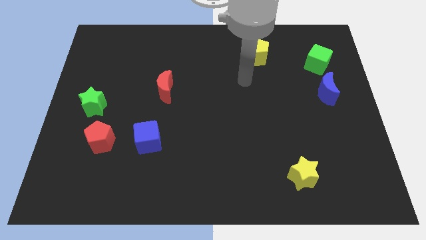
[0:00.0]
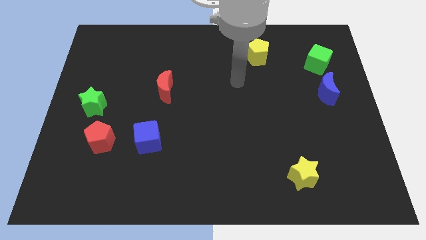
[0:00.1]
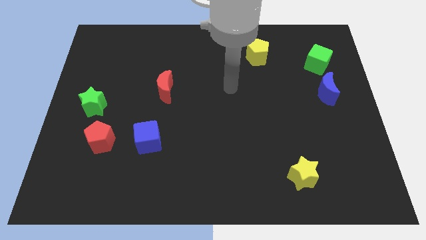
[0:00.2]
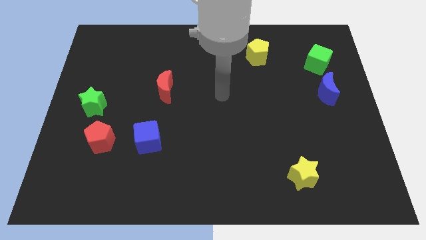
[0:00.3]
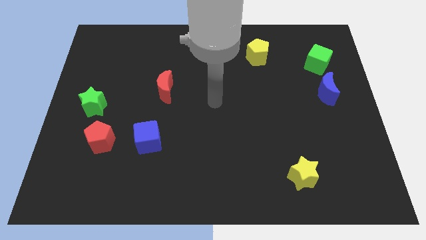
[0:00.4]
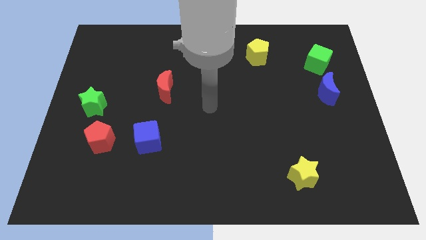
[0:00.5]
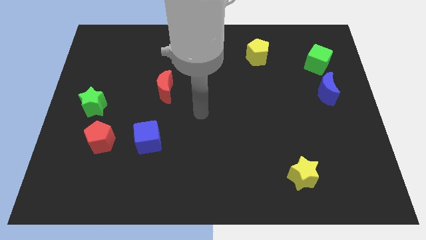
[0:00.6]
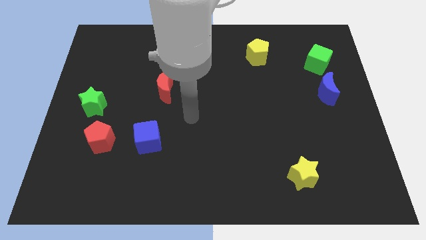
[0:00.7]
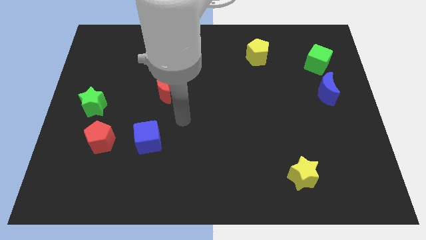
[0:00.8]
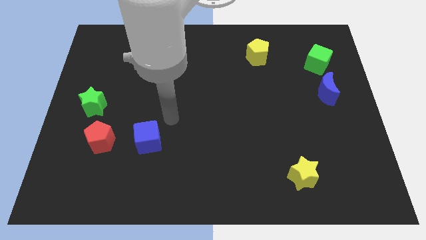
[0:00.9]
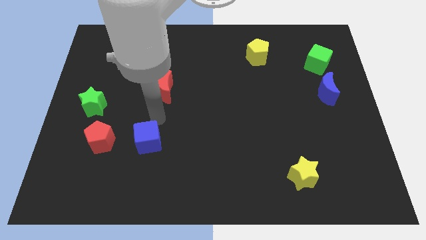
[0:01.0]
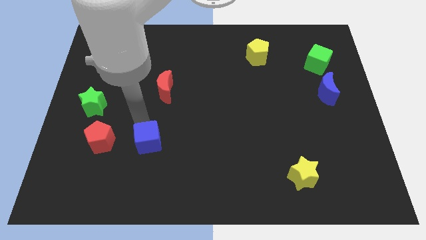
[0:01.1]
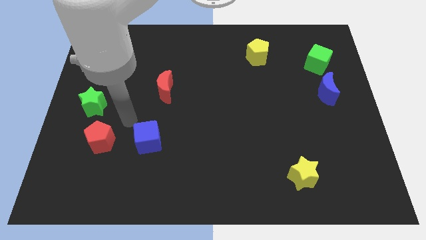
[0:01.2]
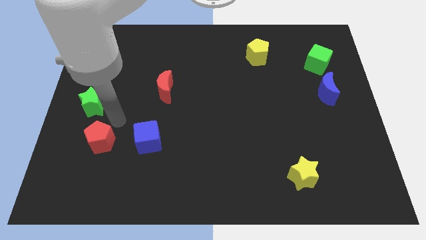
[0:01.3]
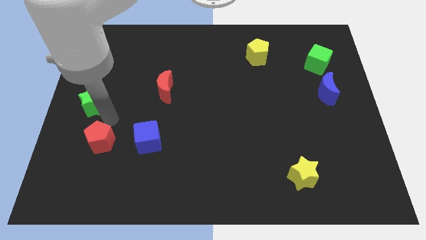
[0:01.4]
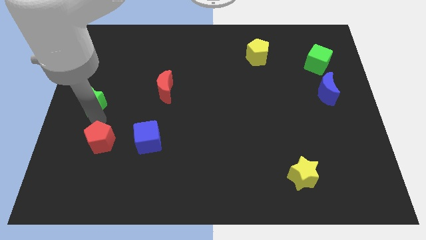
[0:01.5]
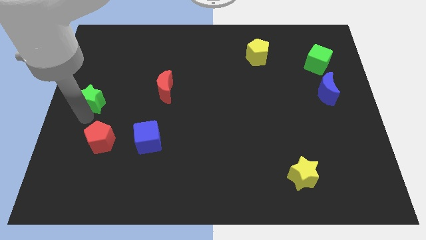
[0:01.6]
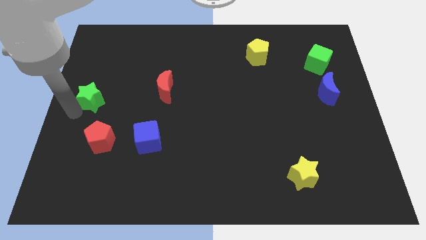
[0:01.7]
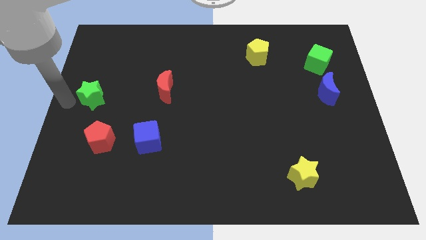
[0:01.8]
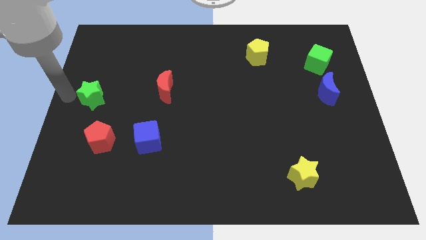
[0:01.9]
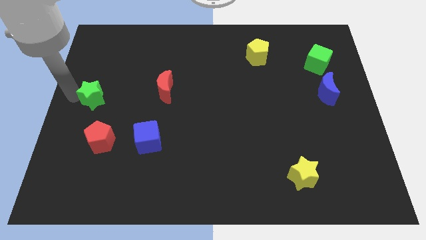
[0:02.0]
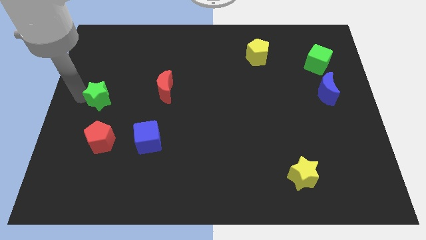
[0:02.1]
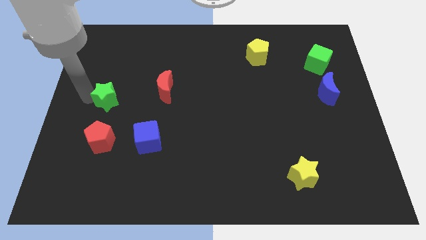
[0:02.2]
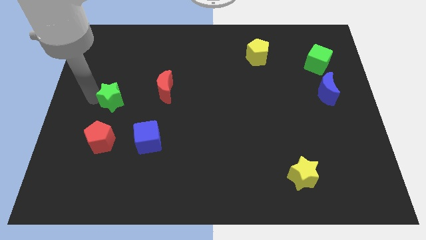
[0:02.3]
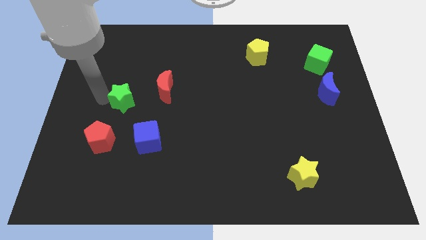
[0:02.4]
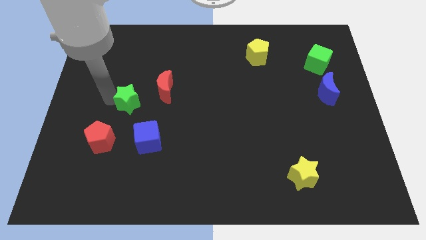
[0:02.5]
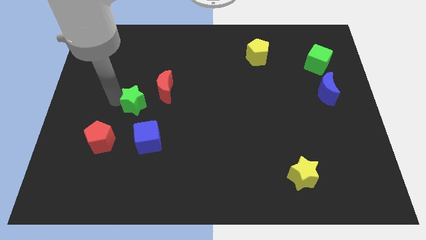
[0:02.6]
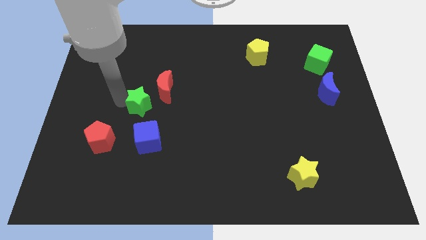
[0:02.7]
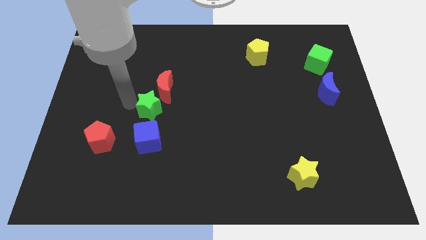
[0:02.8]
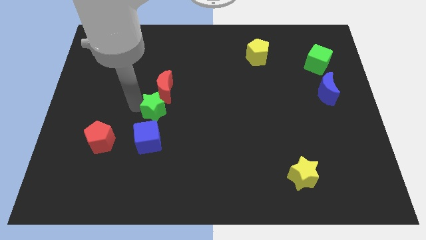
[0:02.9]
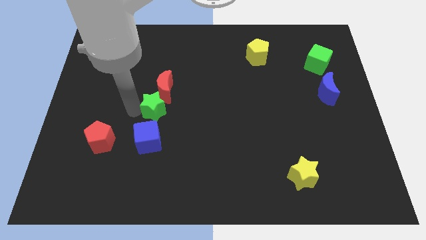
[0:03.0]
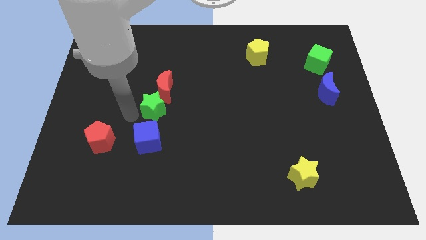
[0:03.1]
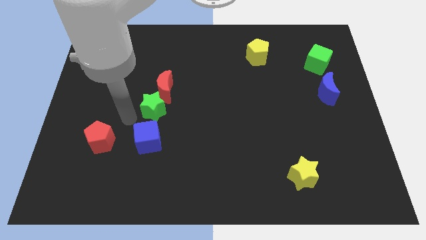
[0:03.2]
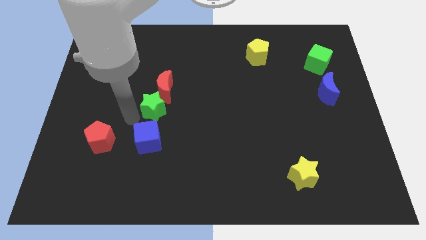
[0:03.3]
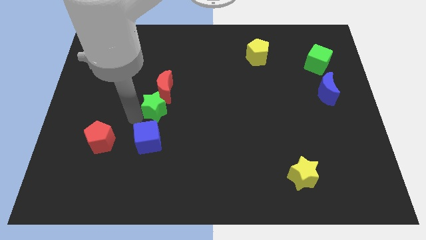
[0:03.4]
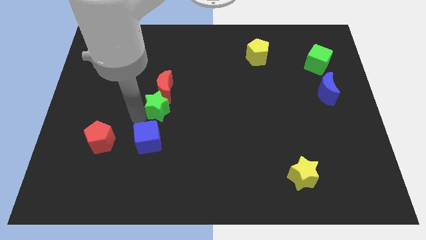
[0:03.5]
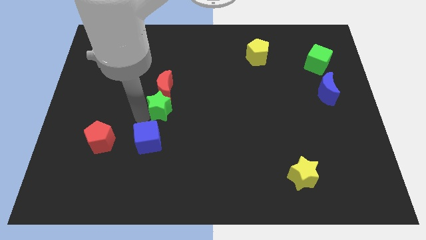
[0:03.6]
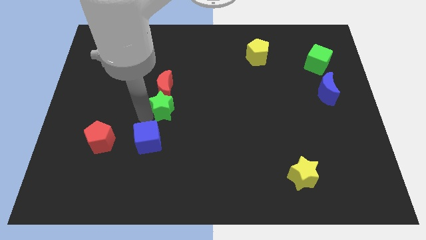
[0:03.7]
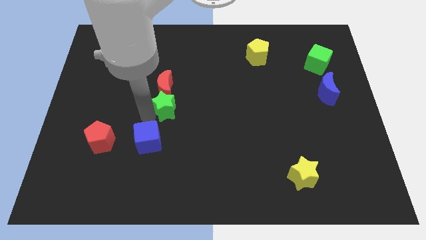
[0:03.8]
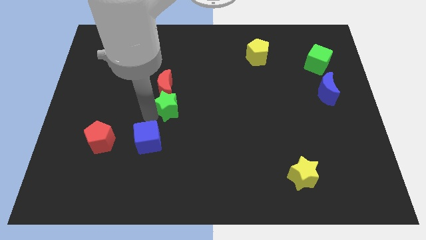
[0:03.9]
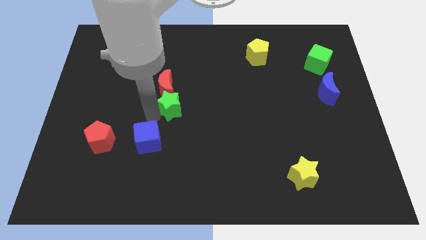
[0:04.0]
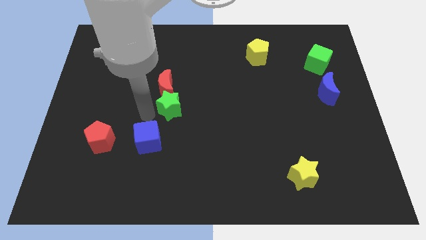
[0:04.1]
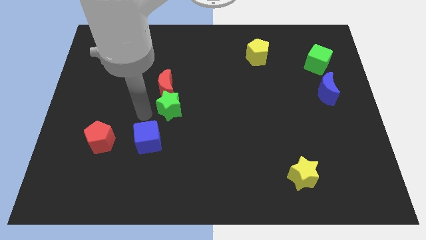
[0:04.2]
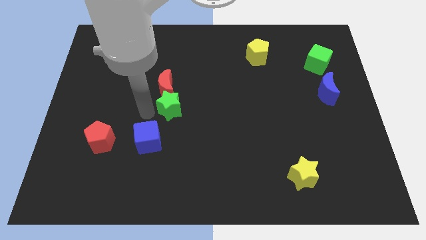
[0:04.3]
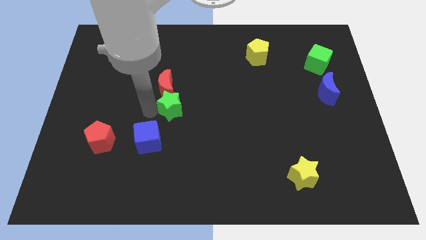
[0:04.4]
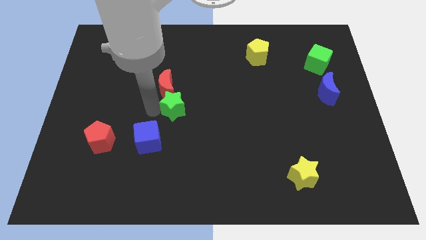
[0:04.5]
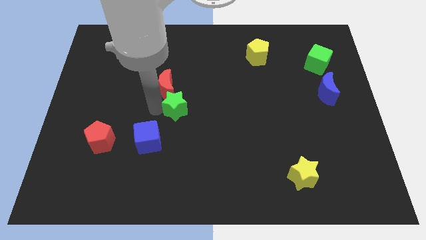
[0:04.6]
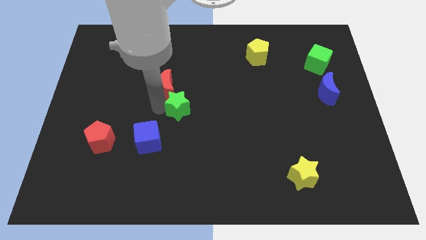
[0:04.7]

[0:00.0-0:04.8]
slide the green star to the right

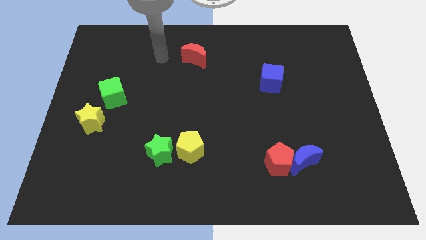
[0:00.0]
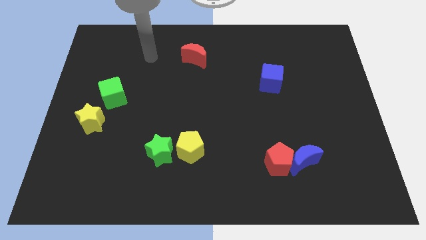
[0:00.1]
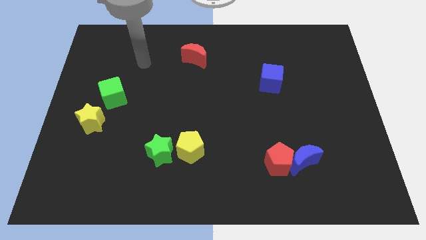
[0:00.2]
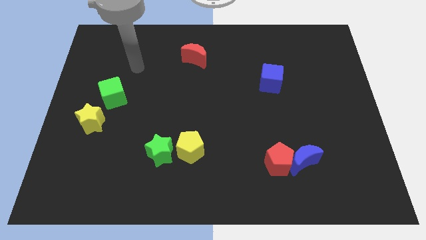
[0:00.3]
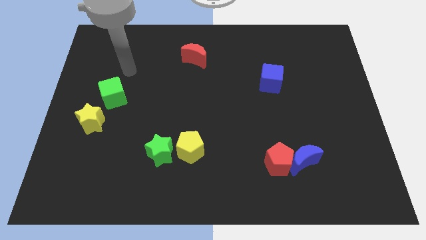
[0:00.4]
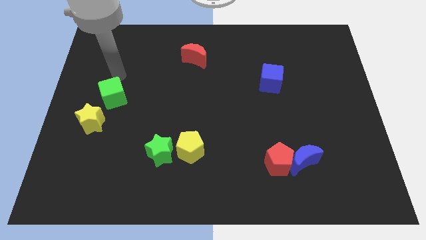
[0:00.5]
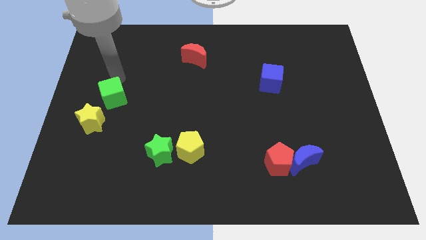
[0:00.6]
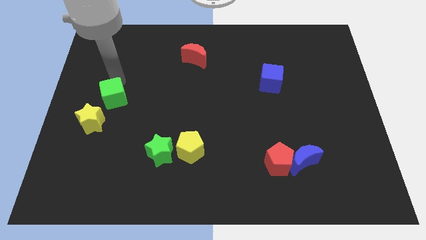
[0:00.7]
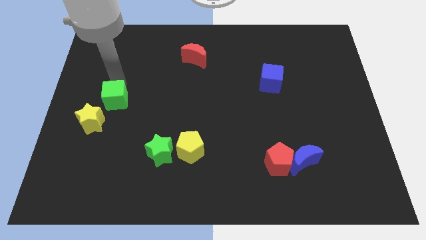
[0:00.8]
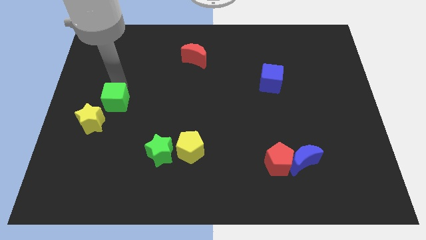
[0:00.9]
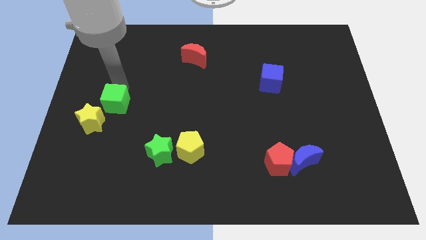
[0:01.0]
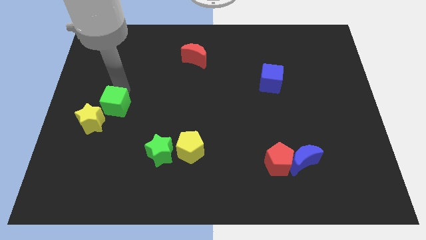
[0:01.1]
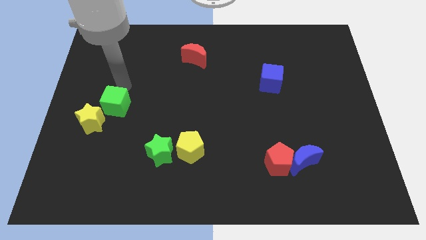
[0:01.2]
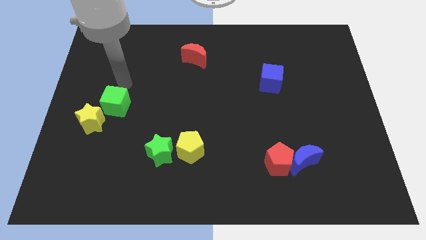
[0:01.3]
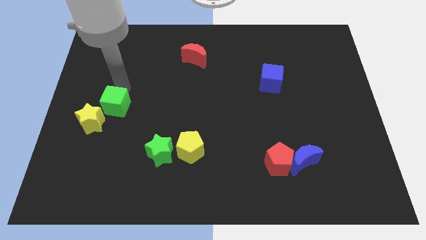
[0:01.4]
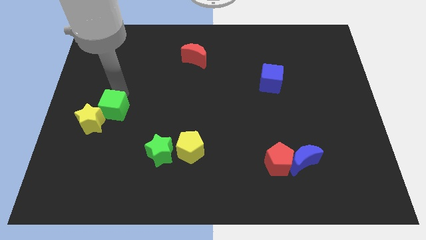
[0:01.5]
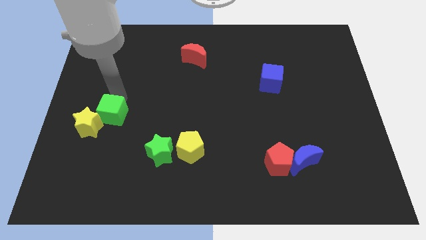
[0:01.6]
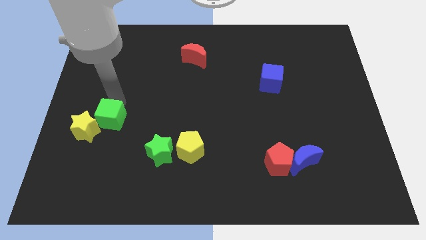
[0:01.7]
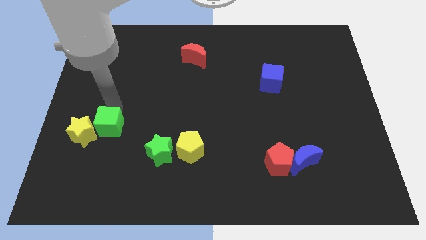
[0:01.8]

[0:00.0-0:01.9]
move the green cube downwards slightly

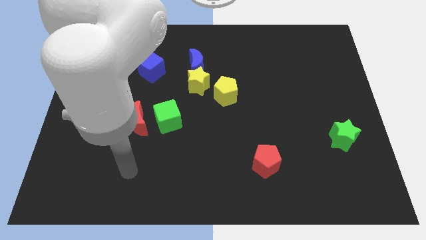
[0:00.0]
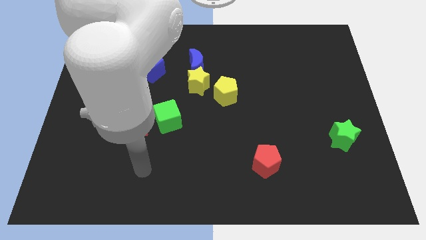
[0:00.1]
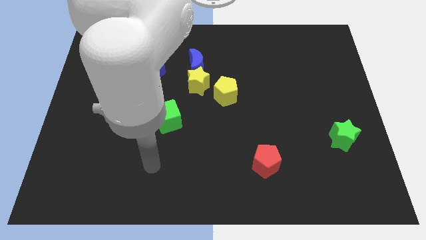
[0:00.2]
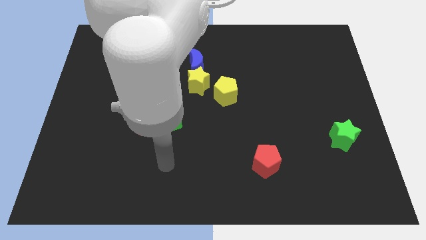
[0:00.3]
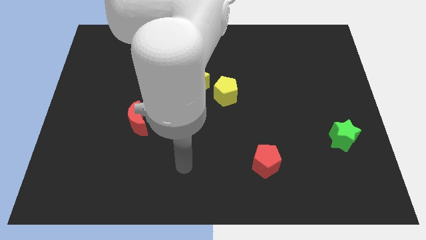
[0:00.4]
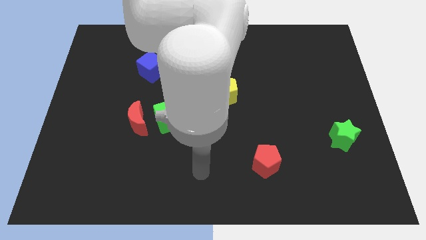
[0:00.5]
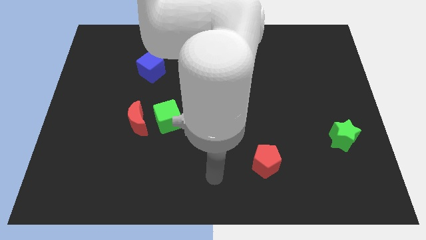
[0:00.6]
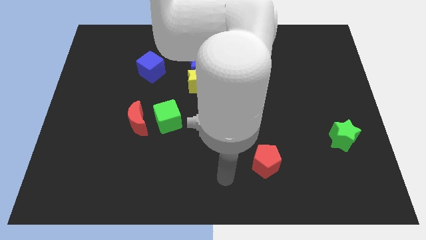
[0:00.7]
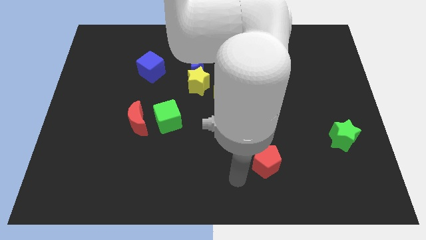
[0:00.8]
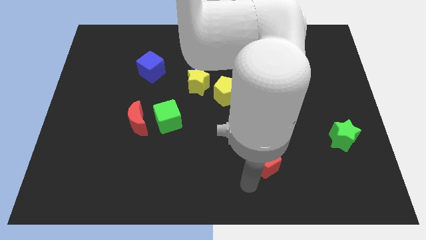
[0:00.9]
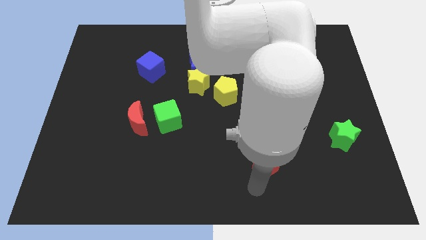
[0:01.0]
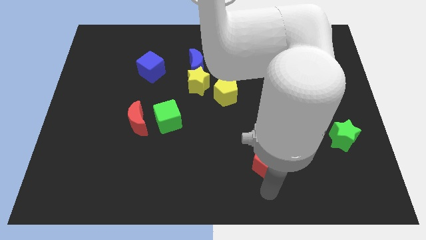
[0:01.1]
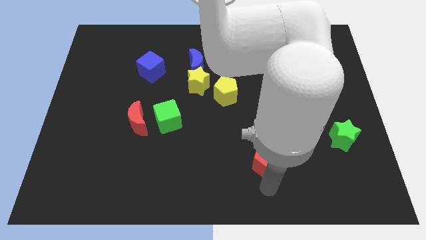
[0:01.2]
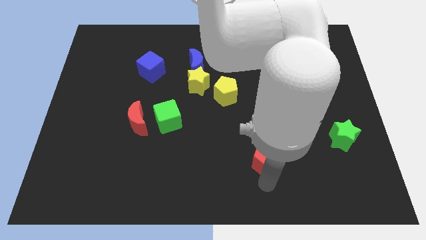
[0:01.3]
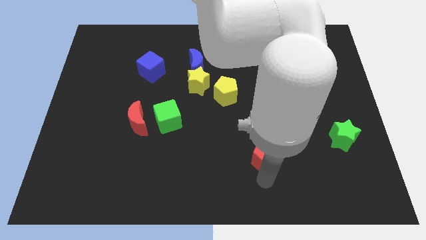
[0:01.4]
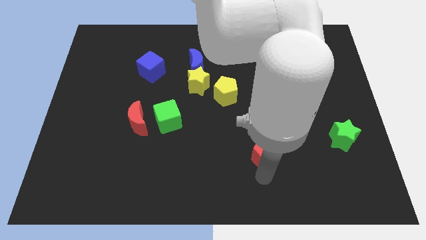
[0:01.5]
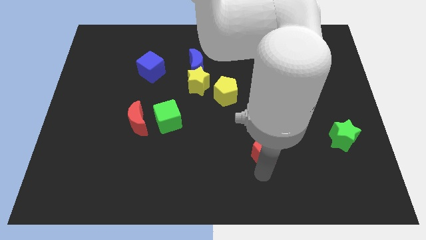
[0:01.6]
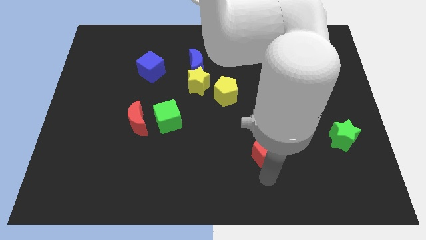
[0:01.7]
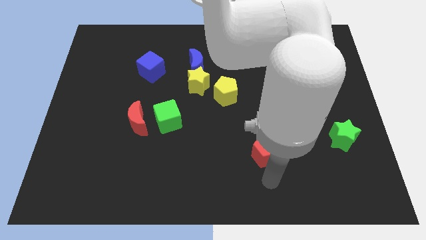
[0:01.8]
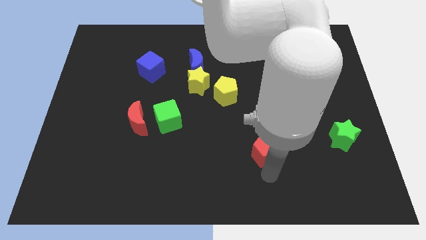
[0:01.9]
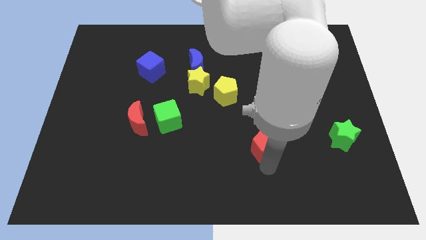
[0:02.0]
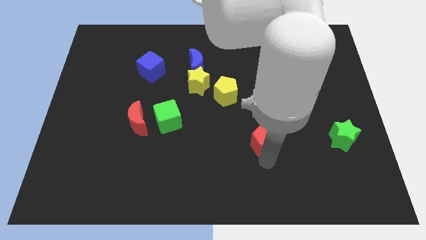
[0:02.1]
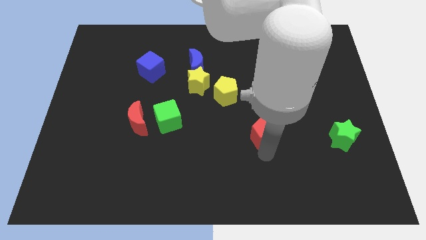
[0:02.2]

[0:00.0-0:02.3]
push the red pentagon a bit upwards
